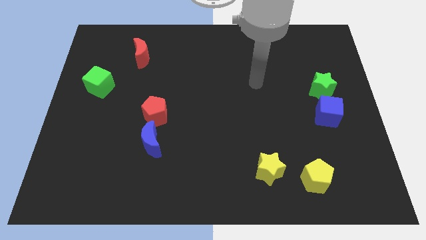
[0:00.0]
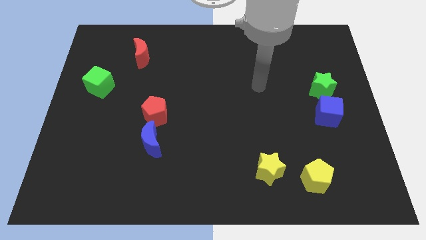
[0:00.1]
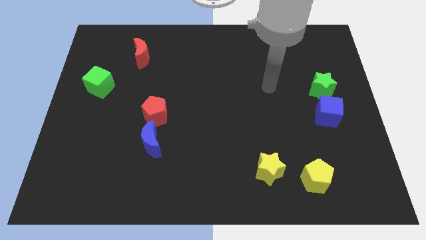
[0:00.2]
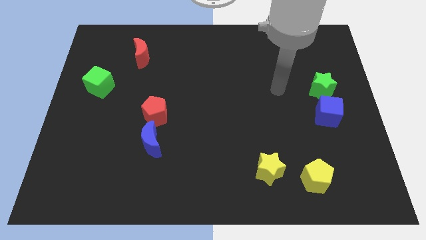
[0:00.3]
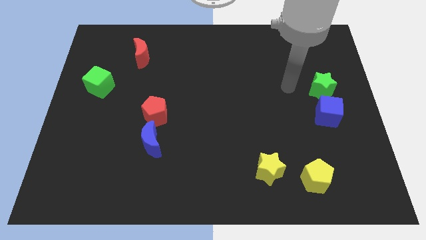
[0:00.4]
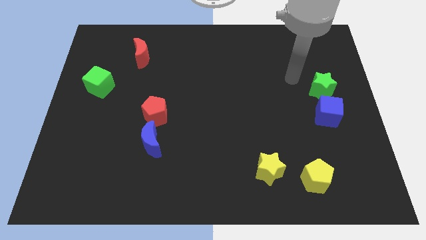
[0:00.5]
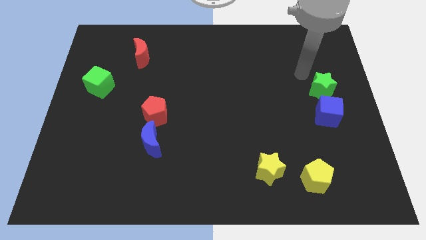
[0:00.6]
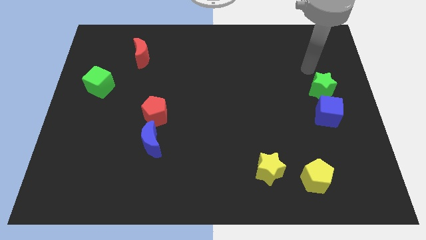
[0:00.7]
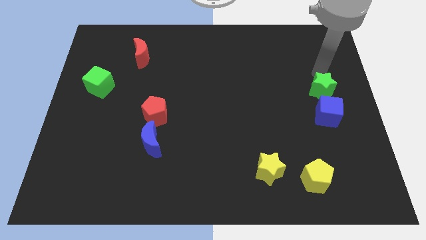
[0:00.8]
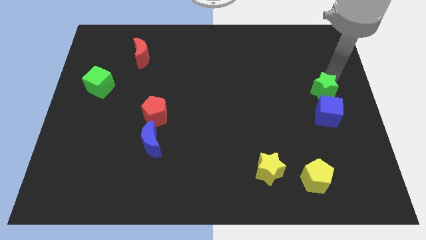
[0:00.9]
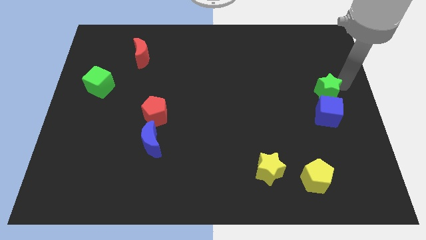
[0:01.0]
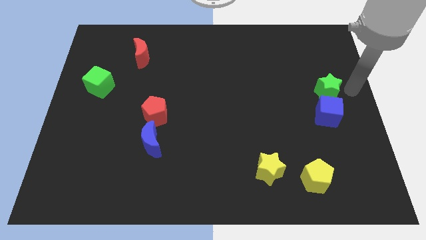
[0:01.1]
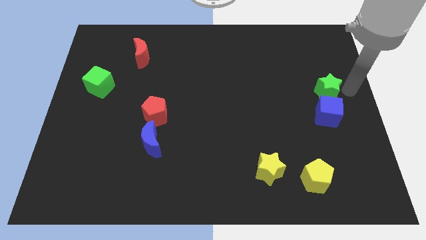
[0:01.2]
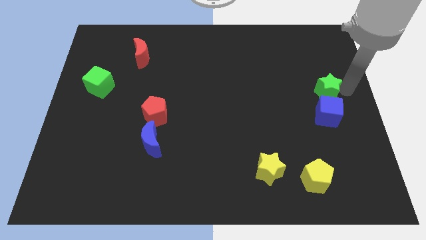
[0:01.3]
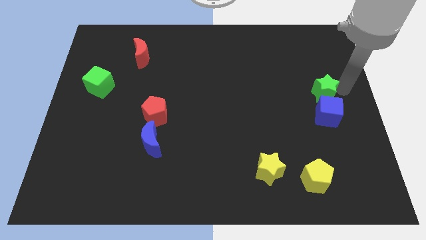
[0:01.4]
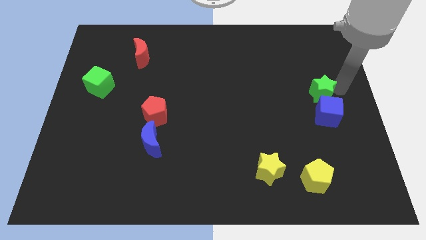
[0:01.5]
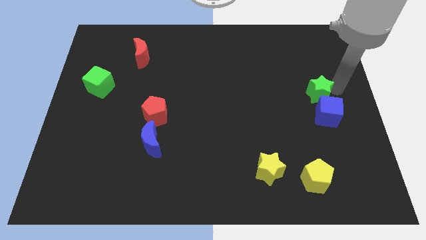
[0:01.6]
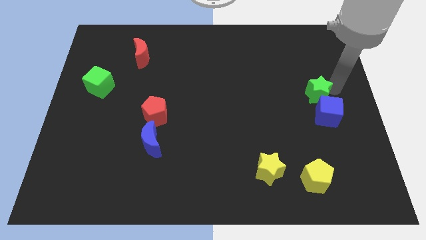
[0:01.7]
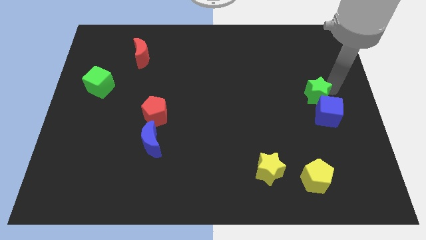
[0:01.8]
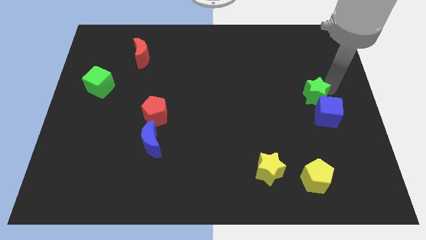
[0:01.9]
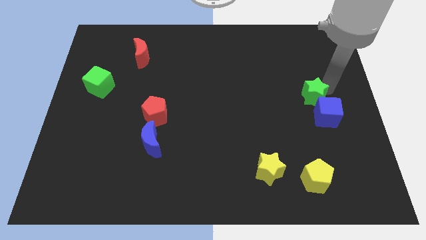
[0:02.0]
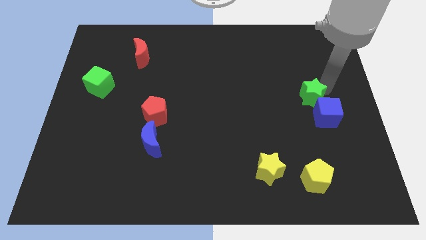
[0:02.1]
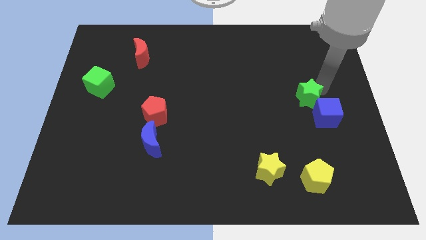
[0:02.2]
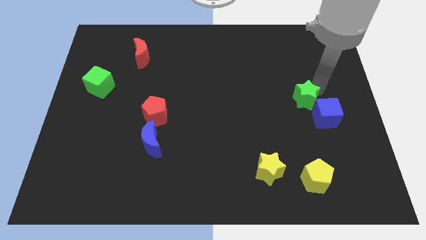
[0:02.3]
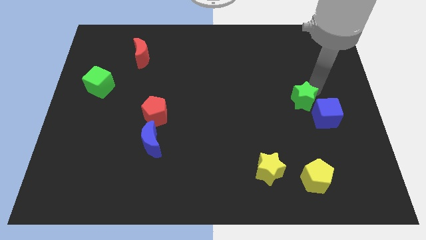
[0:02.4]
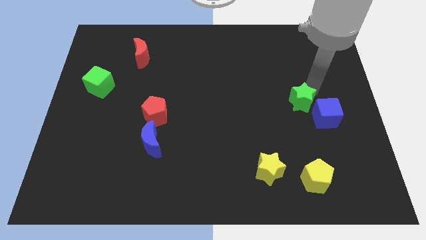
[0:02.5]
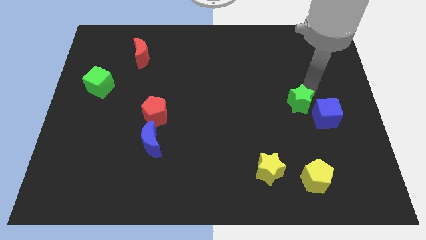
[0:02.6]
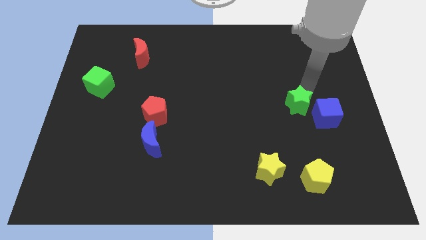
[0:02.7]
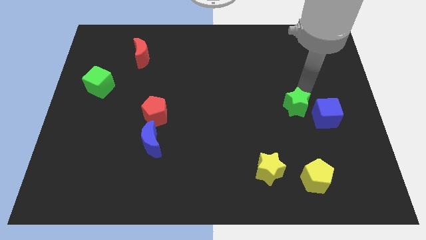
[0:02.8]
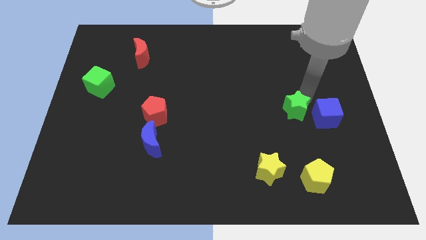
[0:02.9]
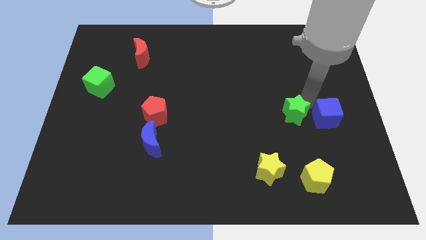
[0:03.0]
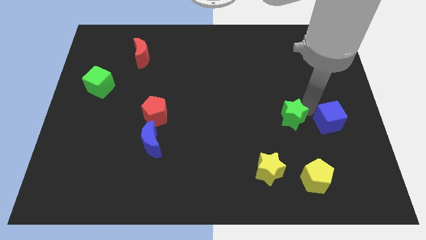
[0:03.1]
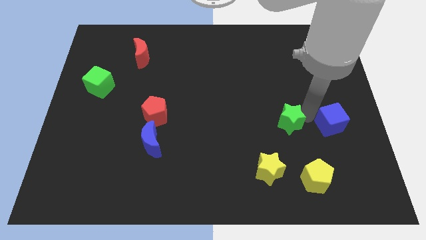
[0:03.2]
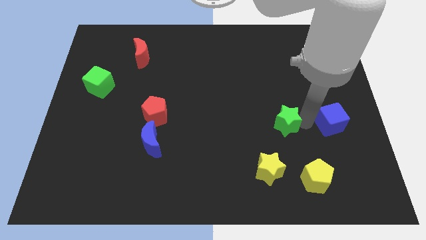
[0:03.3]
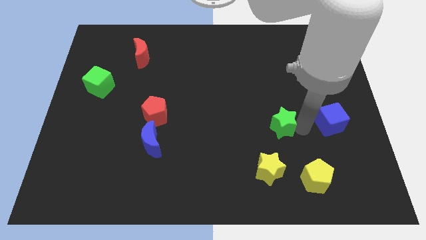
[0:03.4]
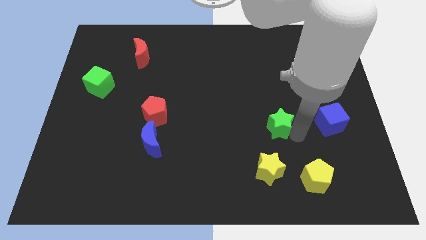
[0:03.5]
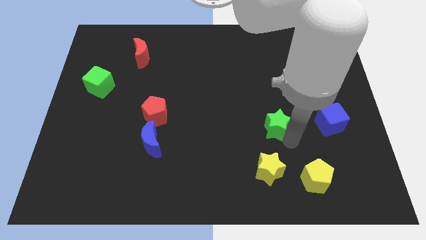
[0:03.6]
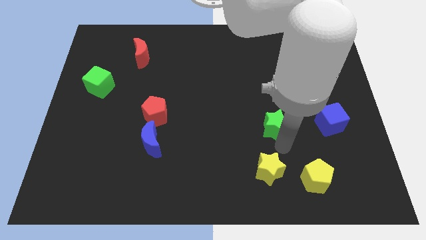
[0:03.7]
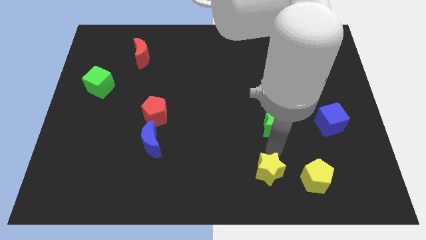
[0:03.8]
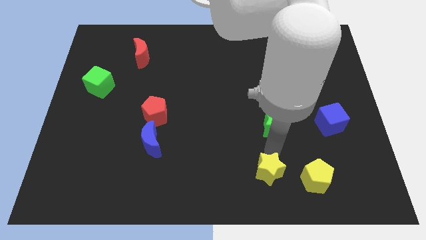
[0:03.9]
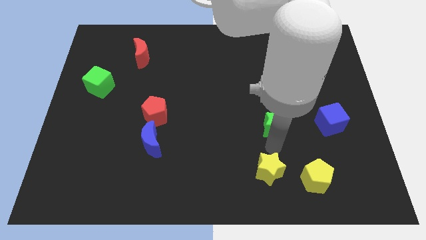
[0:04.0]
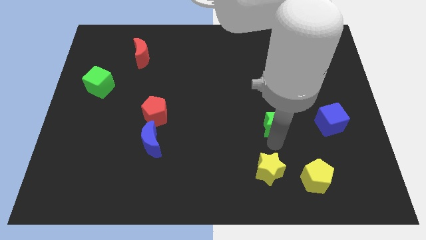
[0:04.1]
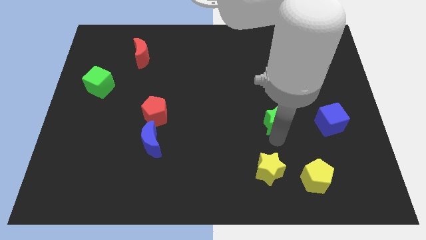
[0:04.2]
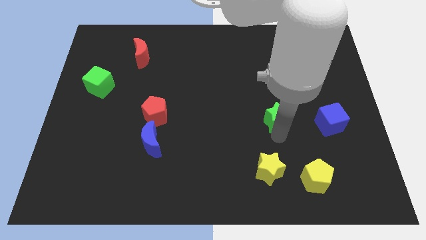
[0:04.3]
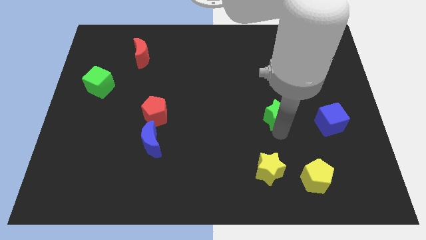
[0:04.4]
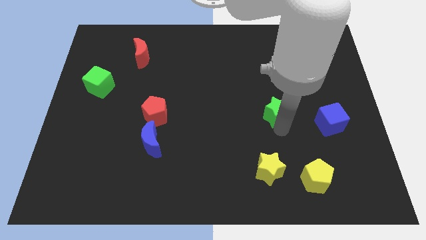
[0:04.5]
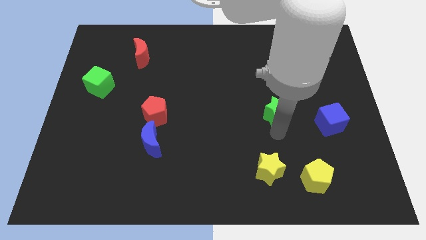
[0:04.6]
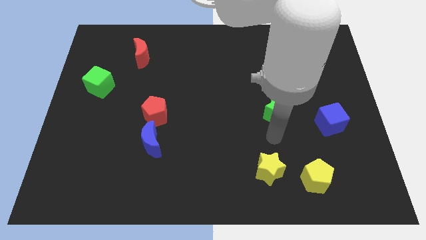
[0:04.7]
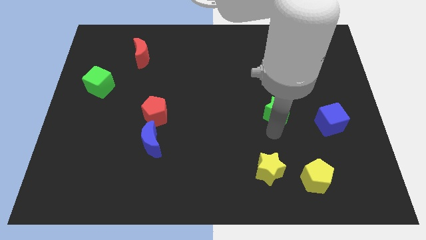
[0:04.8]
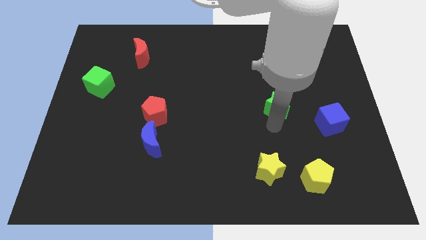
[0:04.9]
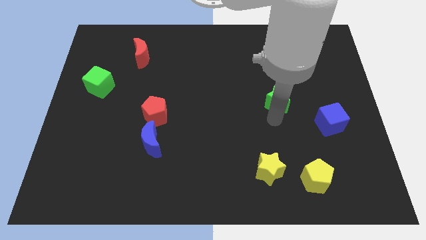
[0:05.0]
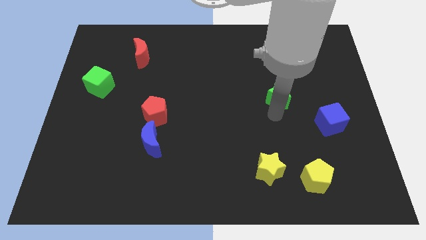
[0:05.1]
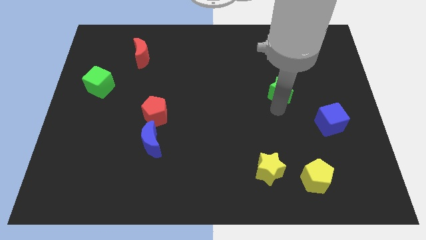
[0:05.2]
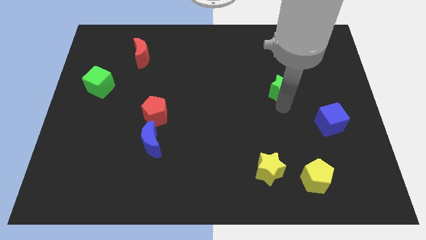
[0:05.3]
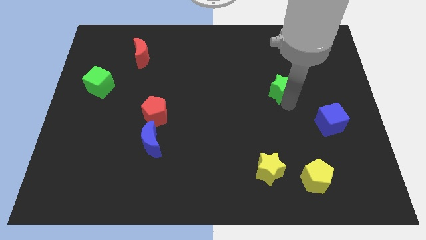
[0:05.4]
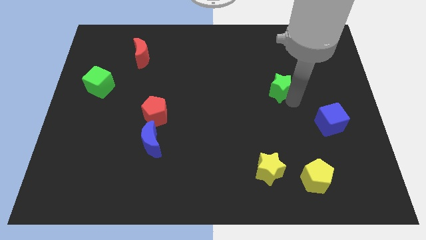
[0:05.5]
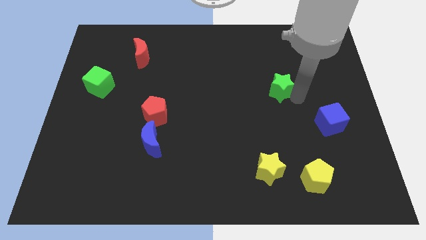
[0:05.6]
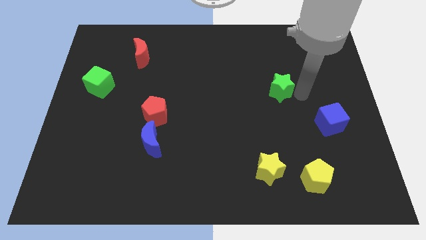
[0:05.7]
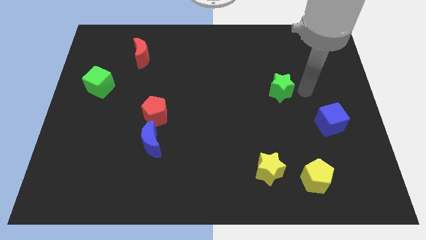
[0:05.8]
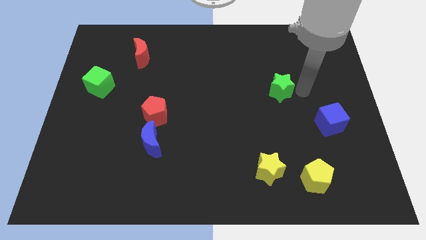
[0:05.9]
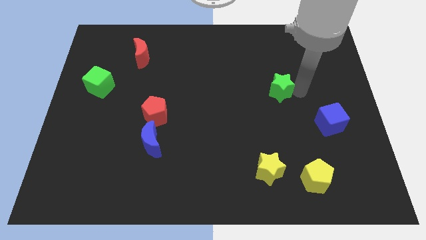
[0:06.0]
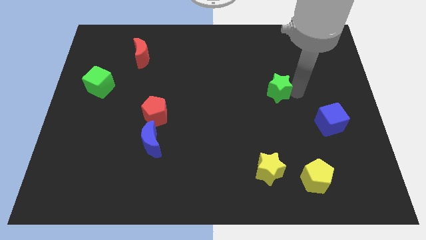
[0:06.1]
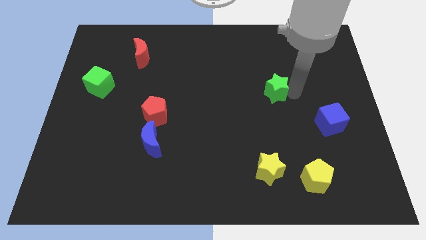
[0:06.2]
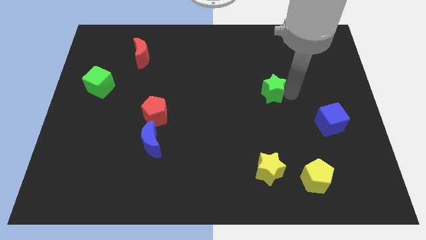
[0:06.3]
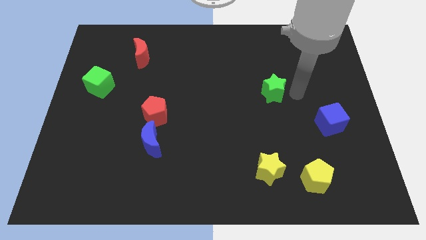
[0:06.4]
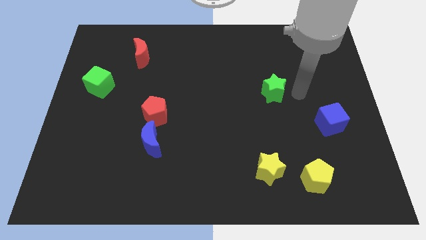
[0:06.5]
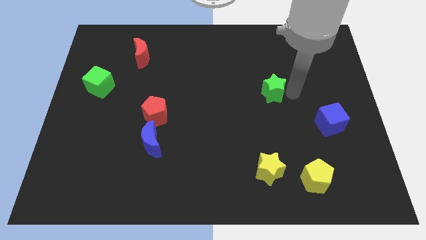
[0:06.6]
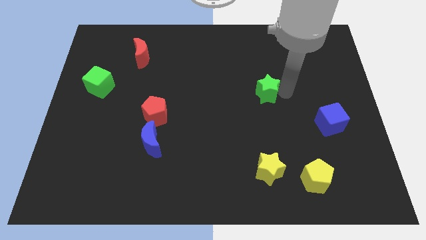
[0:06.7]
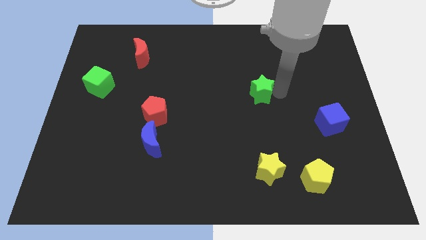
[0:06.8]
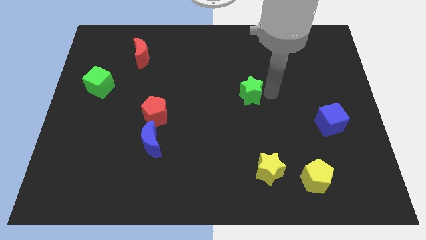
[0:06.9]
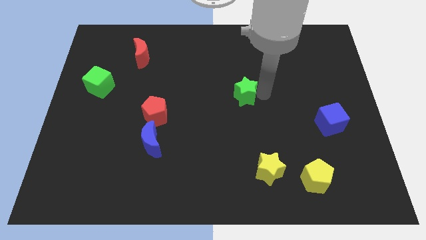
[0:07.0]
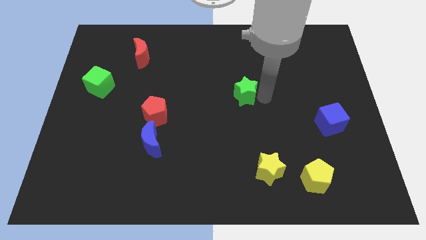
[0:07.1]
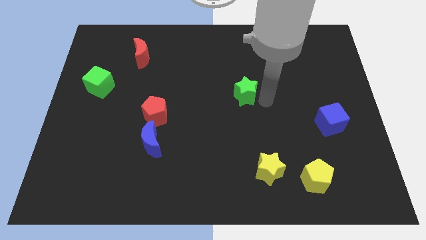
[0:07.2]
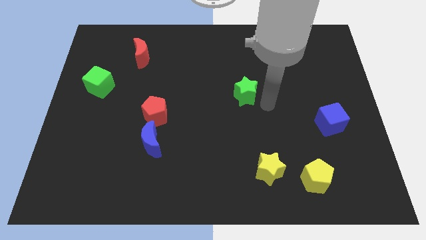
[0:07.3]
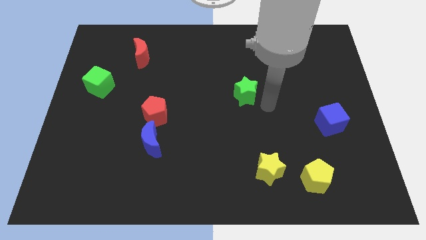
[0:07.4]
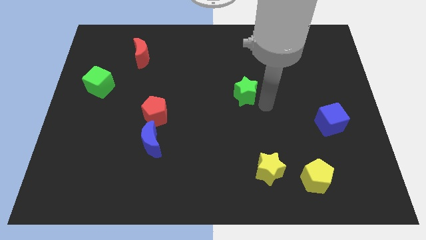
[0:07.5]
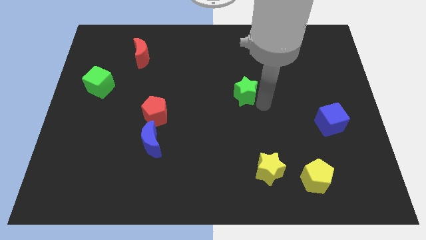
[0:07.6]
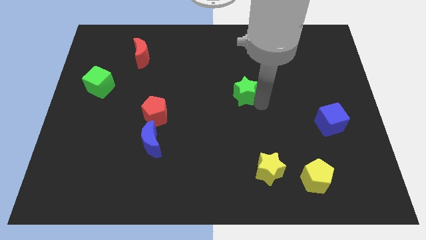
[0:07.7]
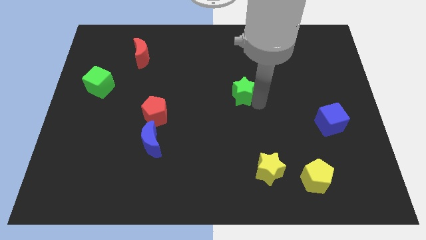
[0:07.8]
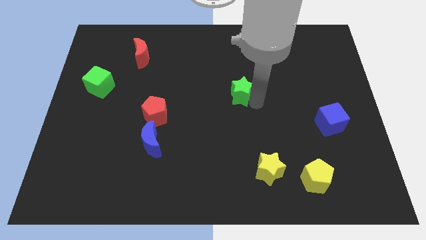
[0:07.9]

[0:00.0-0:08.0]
push the green star to the left
